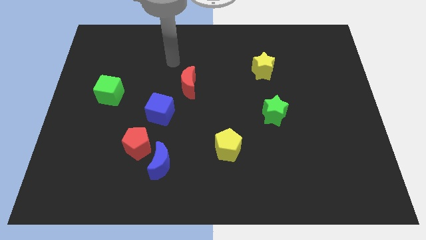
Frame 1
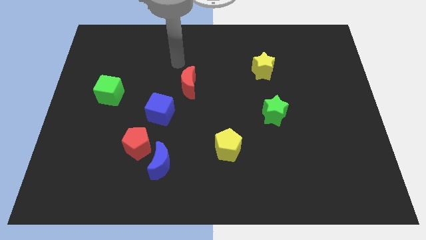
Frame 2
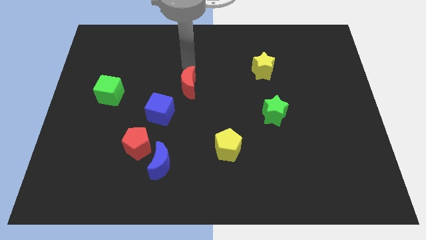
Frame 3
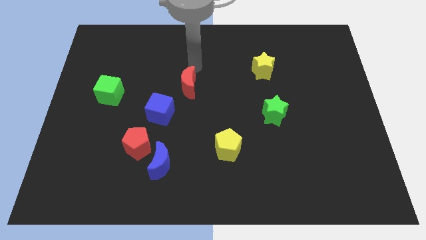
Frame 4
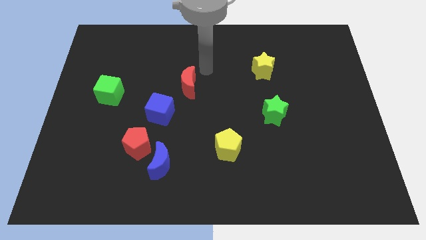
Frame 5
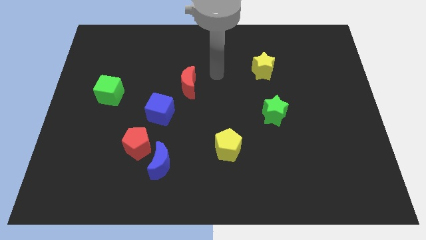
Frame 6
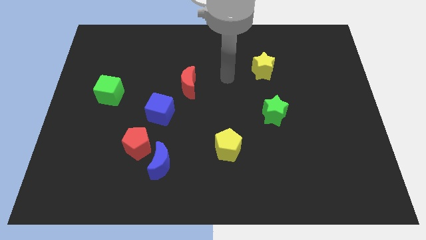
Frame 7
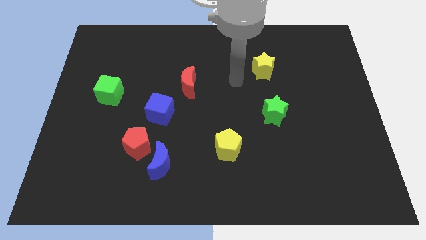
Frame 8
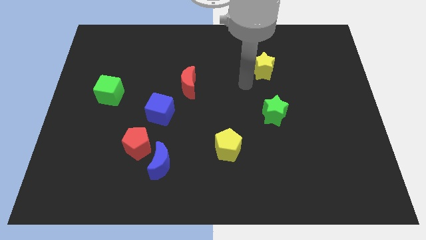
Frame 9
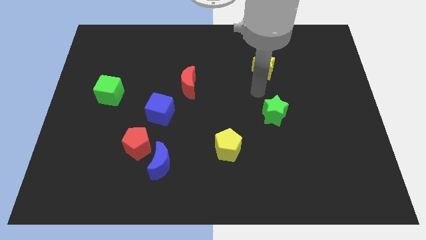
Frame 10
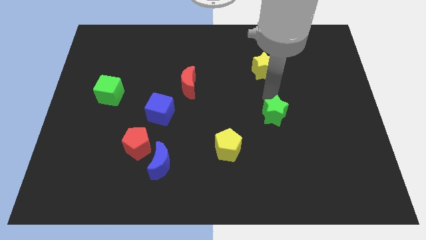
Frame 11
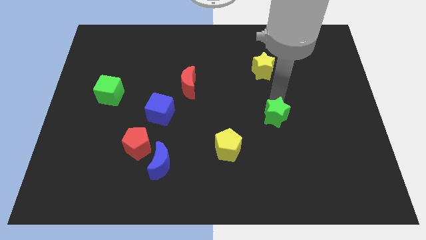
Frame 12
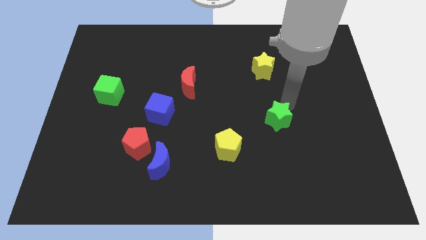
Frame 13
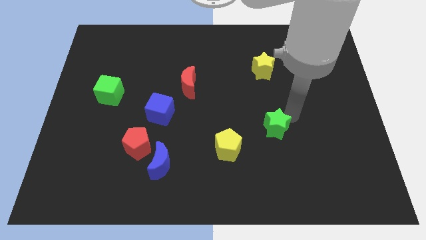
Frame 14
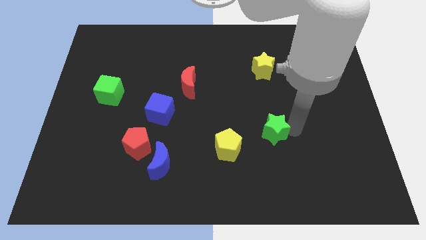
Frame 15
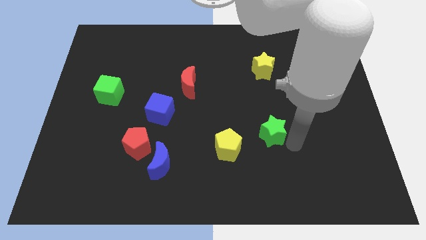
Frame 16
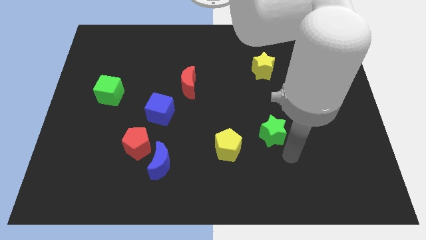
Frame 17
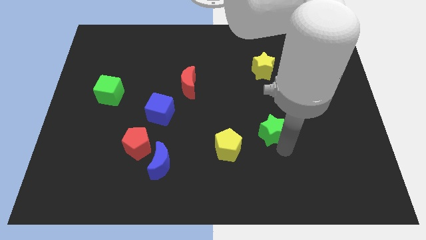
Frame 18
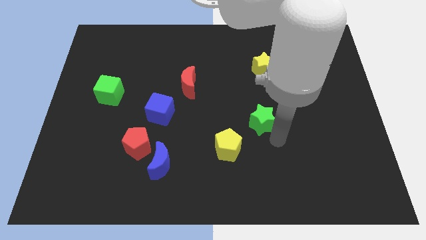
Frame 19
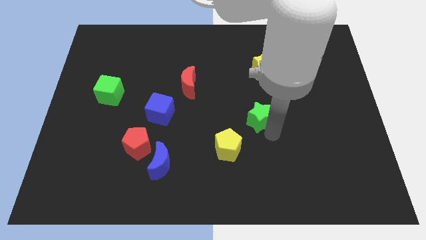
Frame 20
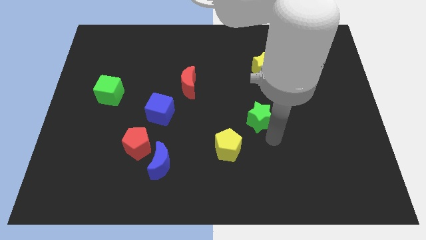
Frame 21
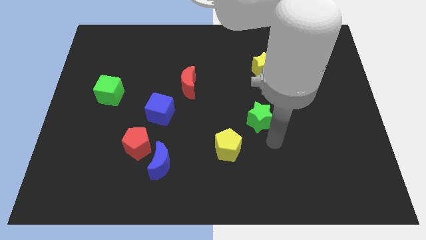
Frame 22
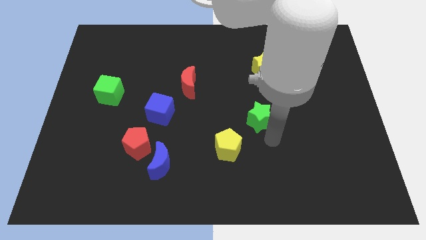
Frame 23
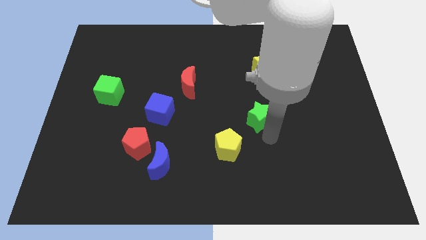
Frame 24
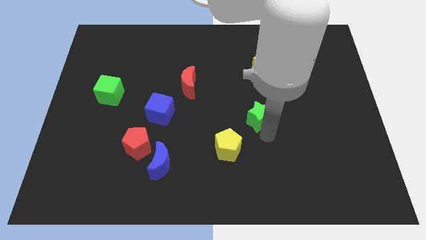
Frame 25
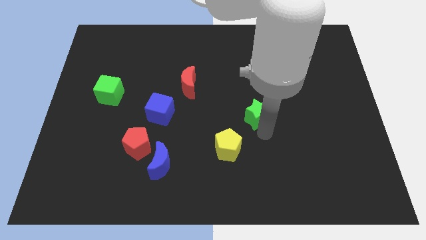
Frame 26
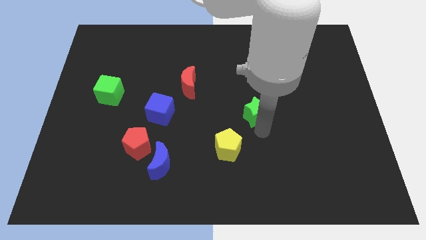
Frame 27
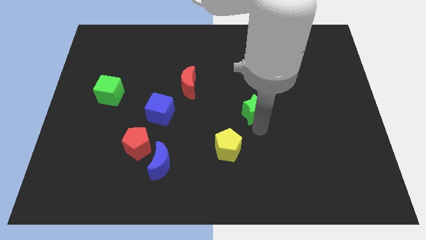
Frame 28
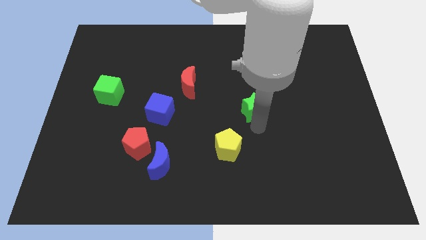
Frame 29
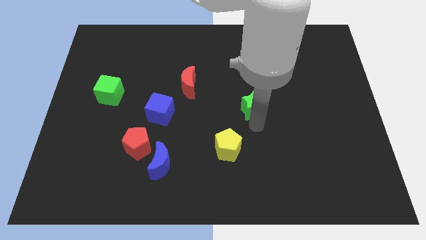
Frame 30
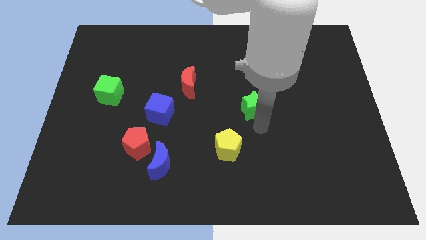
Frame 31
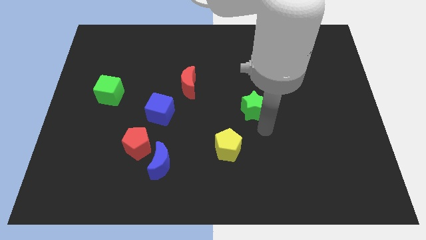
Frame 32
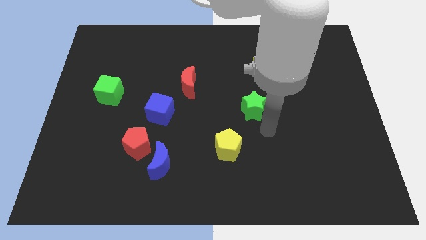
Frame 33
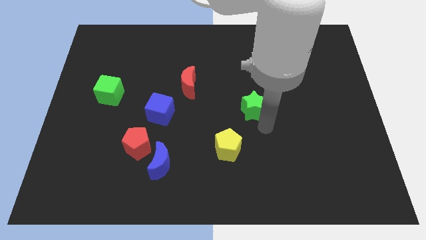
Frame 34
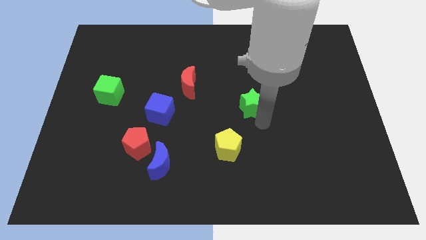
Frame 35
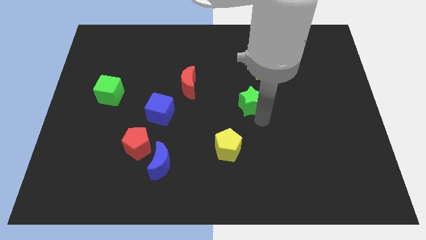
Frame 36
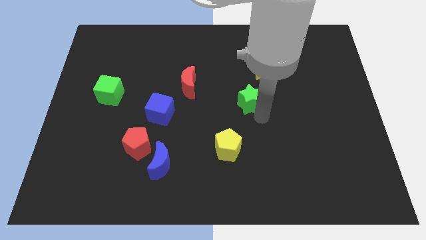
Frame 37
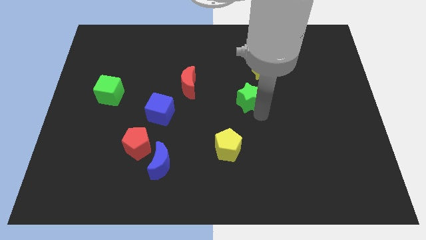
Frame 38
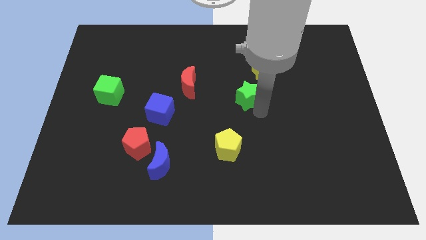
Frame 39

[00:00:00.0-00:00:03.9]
slightly push the green star diagonally up and to the left

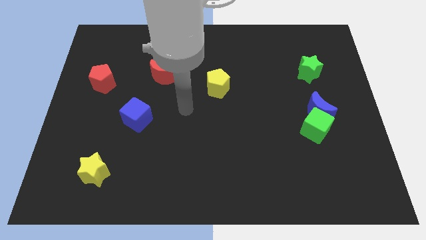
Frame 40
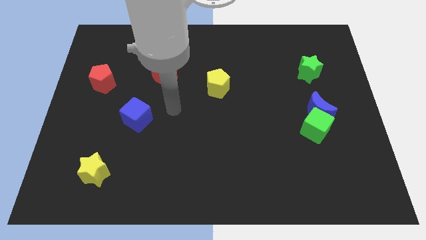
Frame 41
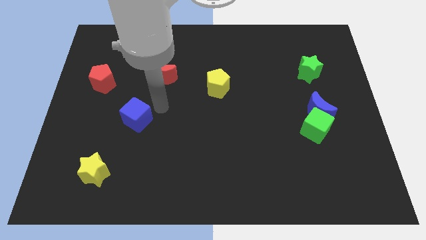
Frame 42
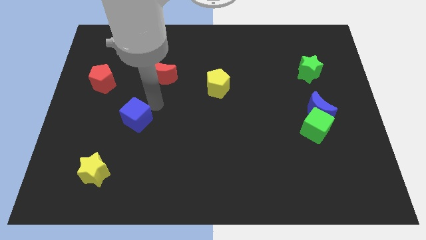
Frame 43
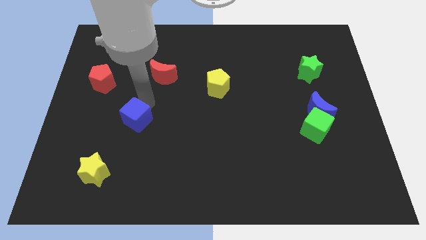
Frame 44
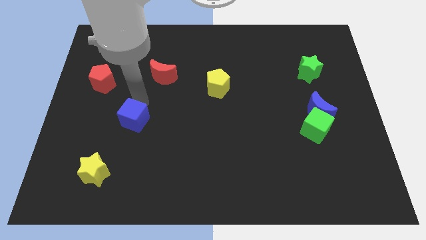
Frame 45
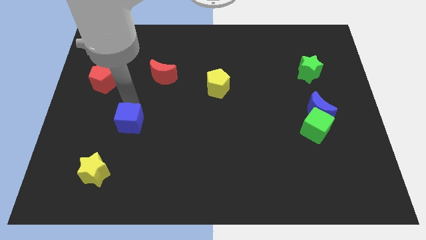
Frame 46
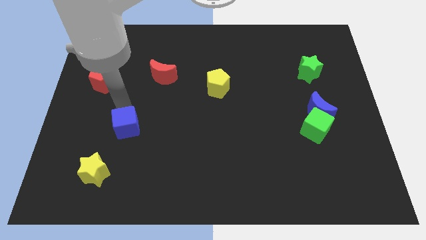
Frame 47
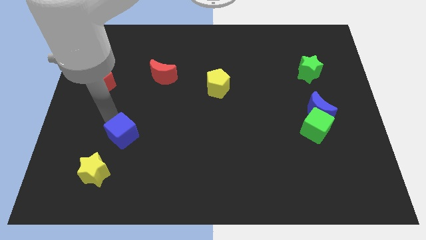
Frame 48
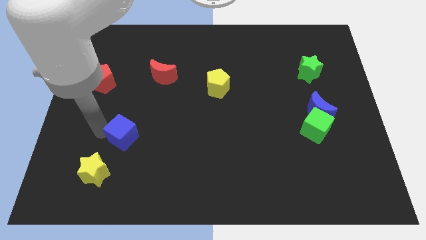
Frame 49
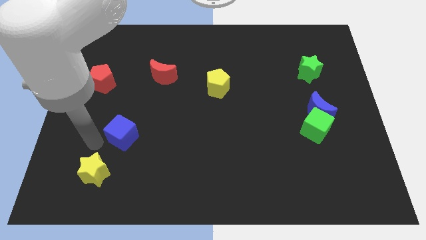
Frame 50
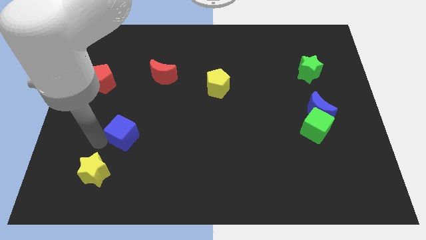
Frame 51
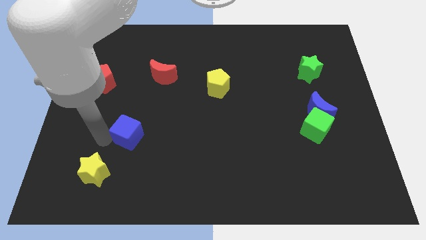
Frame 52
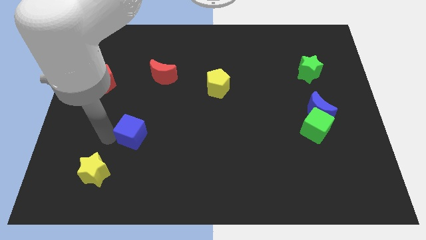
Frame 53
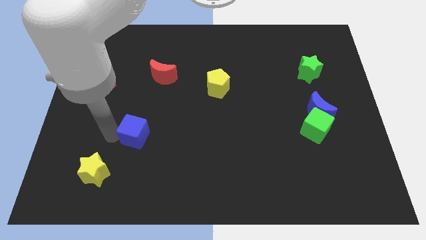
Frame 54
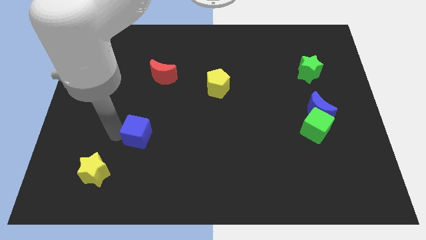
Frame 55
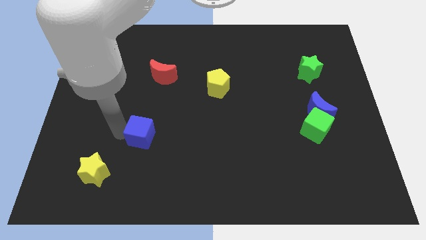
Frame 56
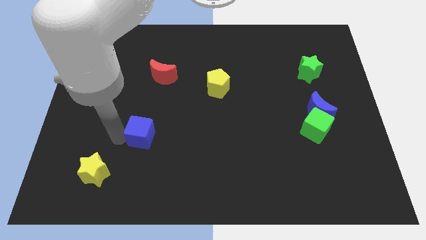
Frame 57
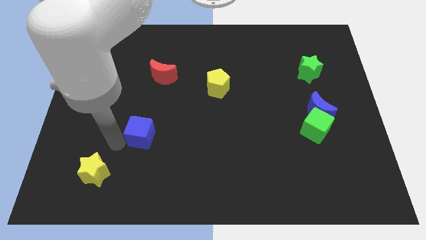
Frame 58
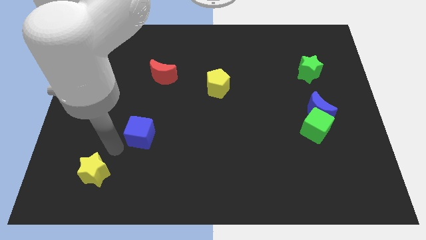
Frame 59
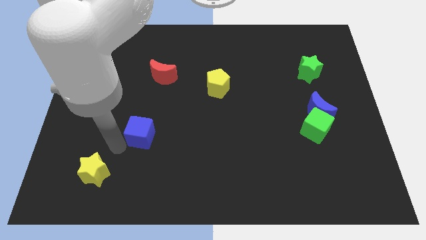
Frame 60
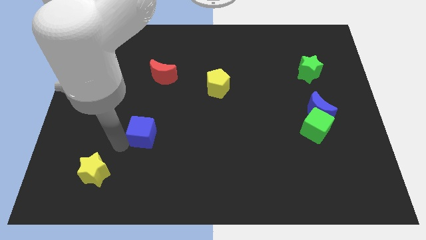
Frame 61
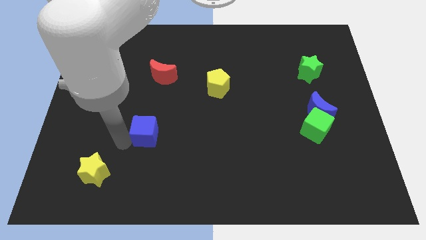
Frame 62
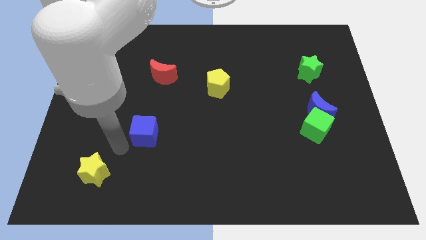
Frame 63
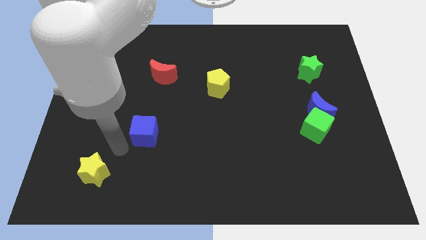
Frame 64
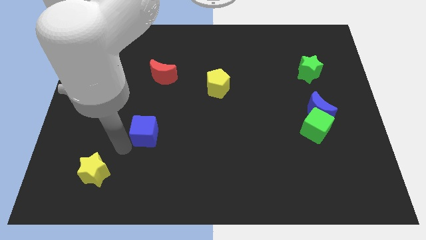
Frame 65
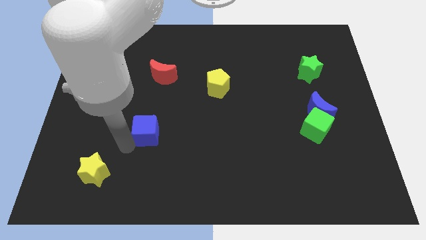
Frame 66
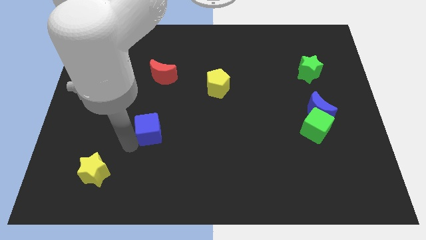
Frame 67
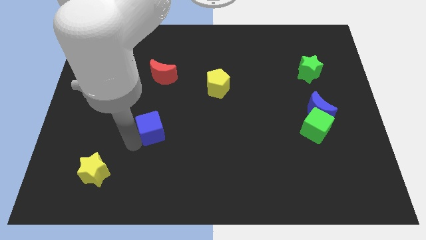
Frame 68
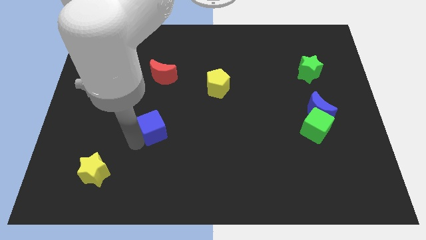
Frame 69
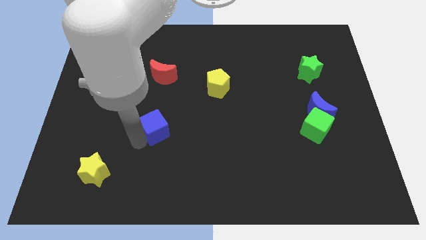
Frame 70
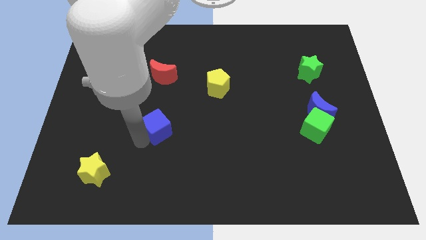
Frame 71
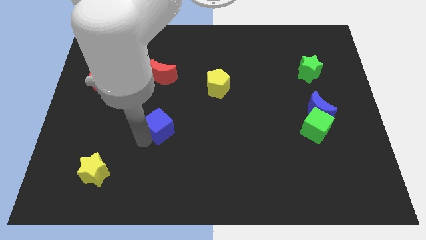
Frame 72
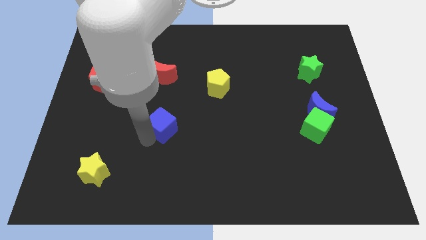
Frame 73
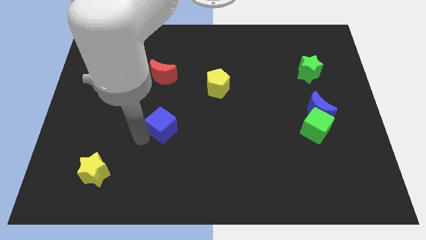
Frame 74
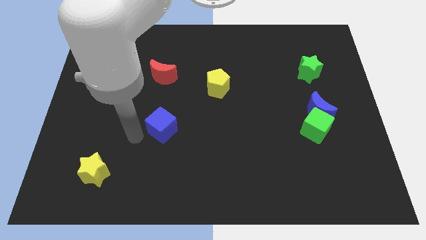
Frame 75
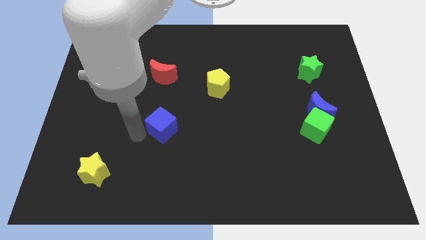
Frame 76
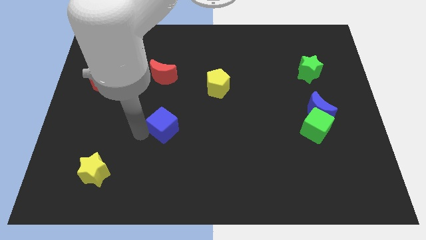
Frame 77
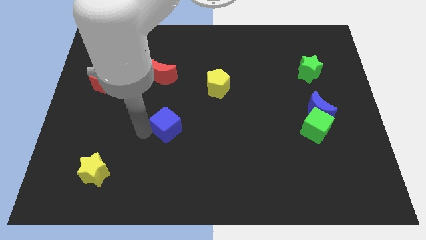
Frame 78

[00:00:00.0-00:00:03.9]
slide the blue cube right a bit
